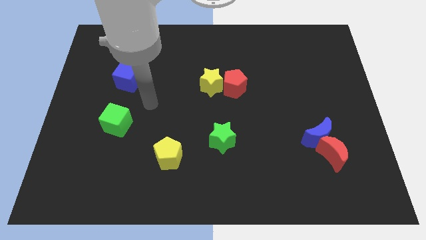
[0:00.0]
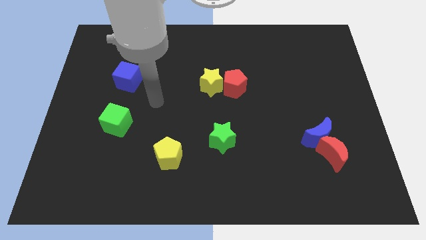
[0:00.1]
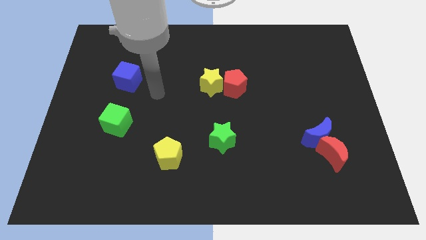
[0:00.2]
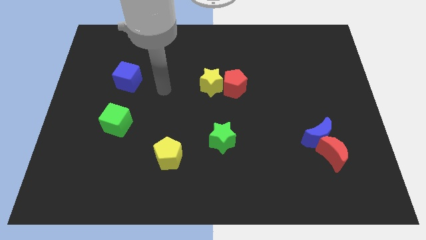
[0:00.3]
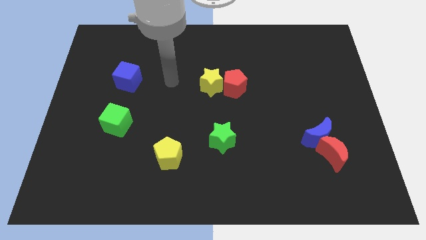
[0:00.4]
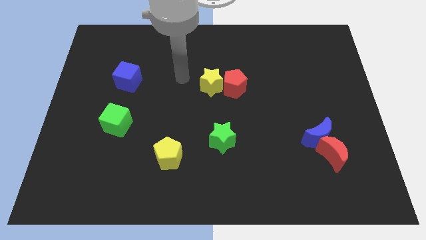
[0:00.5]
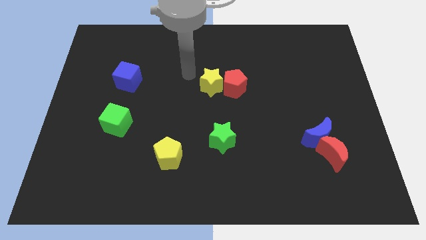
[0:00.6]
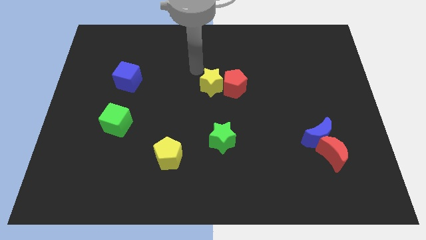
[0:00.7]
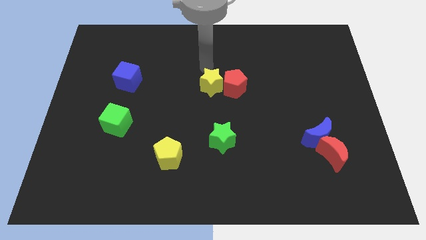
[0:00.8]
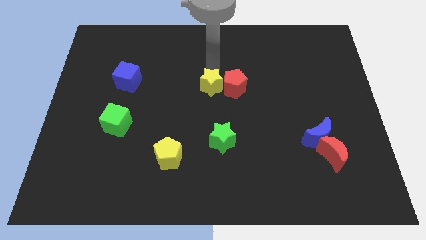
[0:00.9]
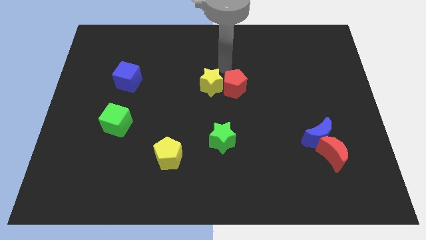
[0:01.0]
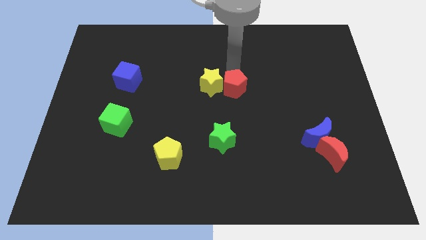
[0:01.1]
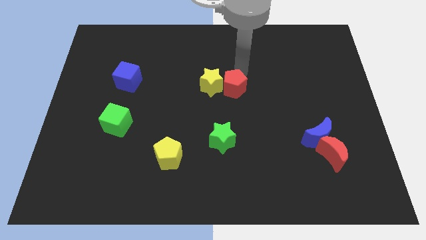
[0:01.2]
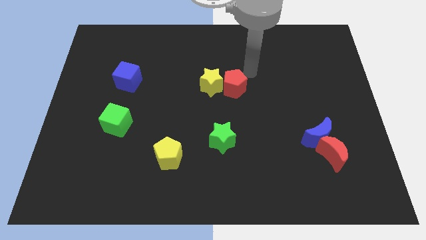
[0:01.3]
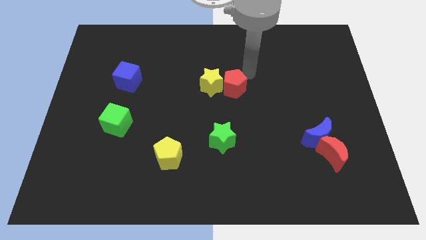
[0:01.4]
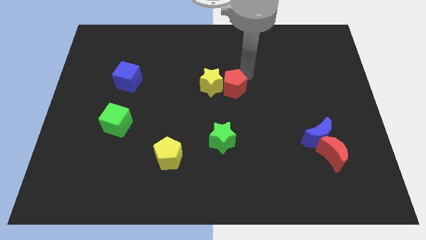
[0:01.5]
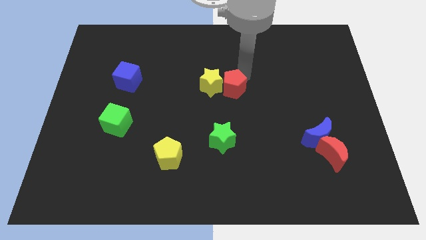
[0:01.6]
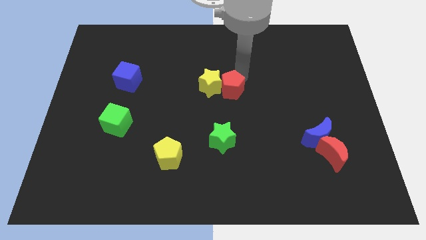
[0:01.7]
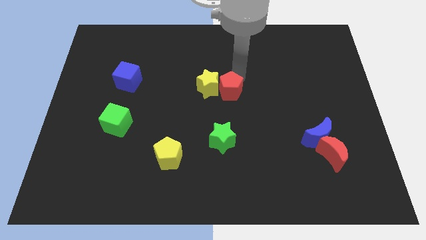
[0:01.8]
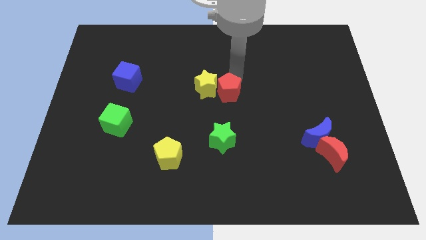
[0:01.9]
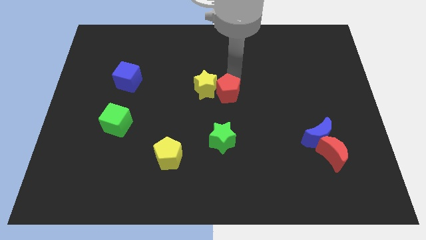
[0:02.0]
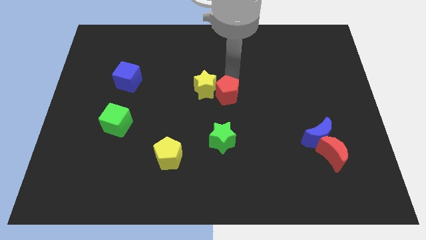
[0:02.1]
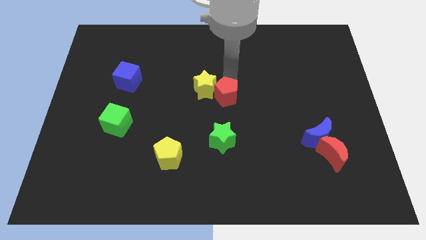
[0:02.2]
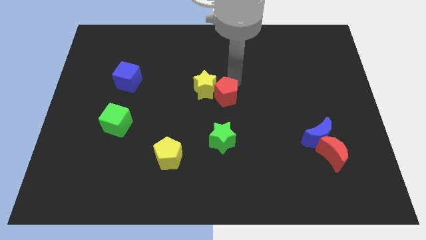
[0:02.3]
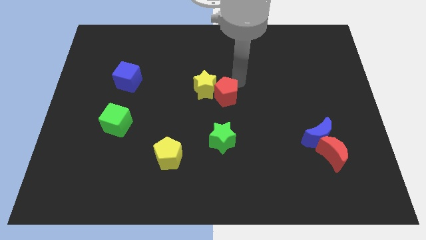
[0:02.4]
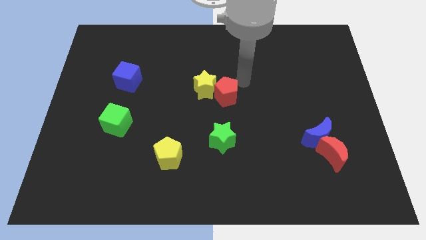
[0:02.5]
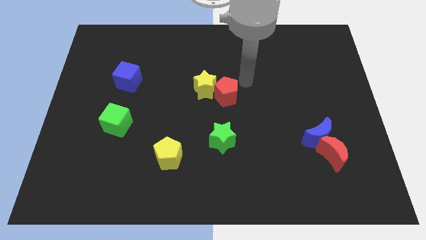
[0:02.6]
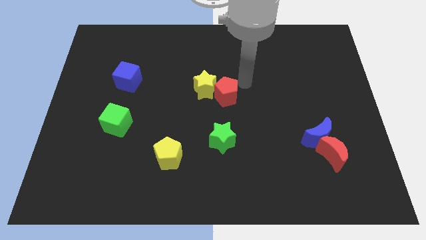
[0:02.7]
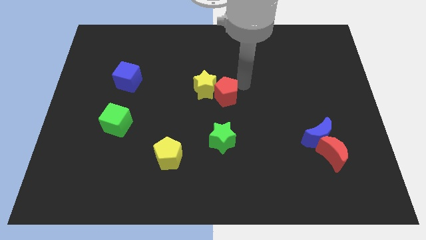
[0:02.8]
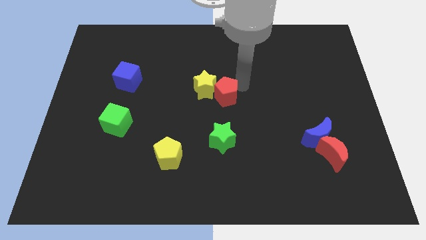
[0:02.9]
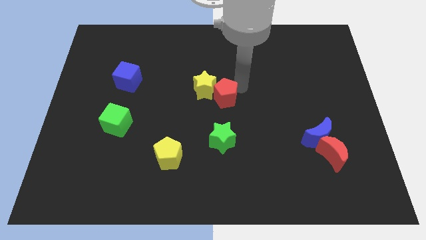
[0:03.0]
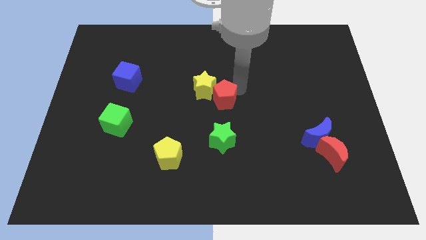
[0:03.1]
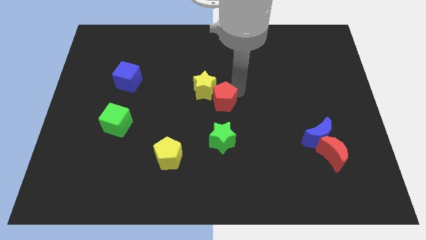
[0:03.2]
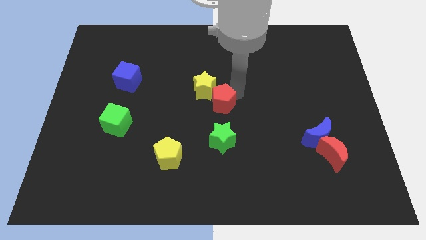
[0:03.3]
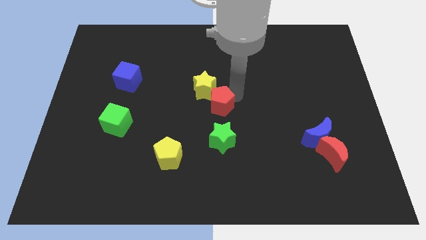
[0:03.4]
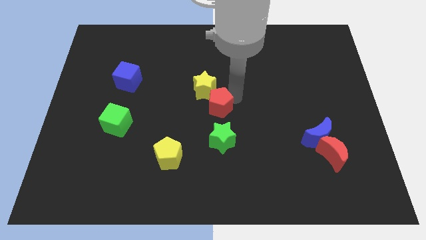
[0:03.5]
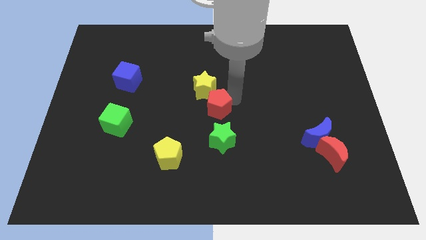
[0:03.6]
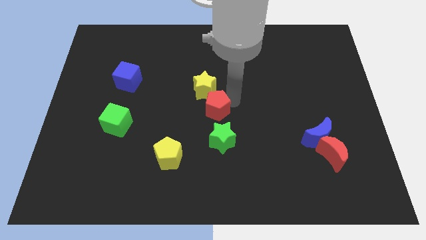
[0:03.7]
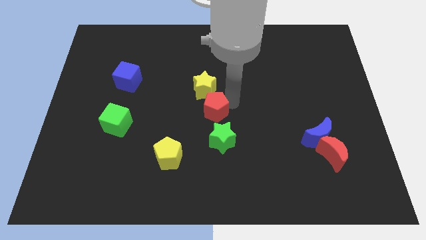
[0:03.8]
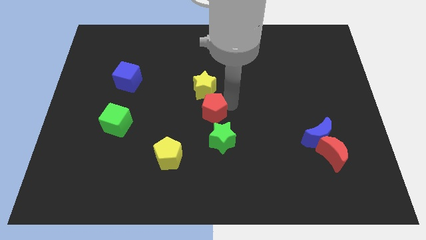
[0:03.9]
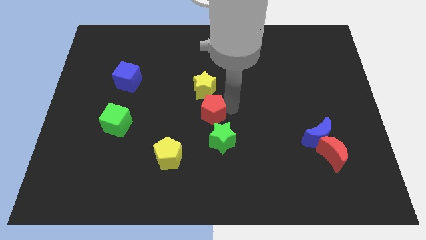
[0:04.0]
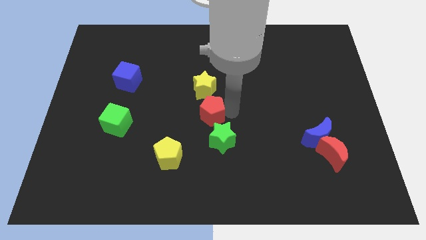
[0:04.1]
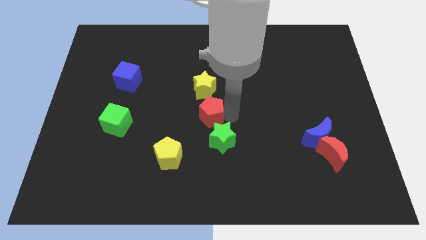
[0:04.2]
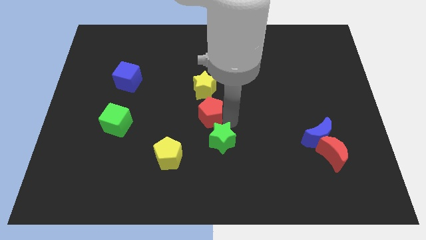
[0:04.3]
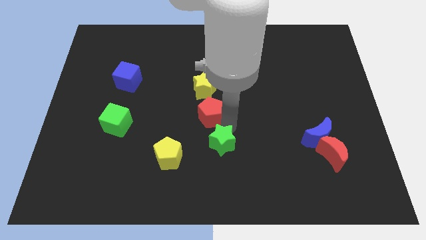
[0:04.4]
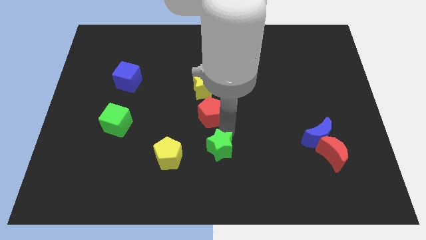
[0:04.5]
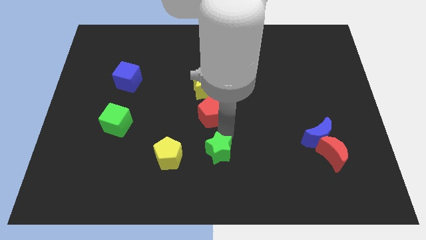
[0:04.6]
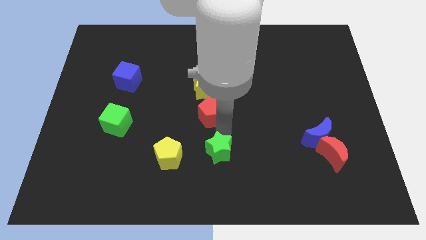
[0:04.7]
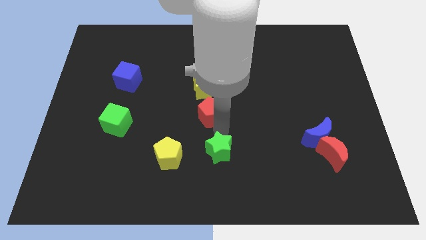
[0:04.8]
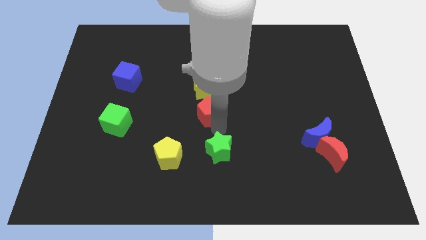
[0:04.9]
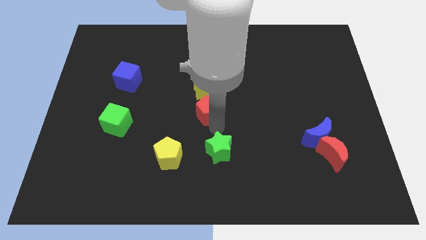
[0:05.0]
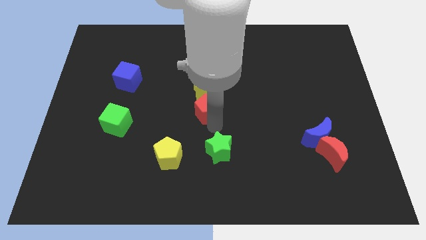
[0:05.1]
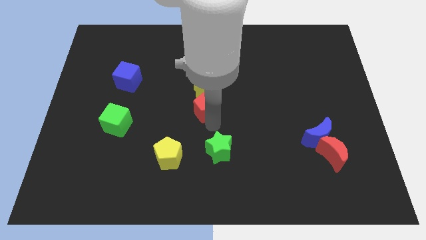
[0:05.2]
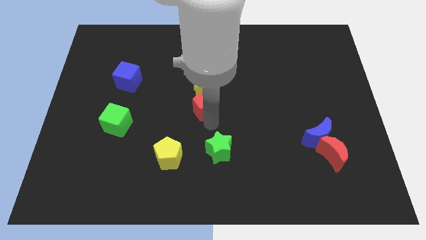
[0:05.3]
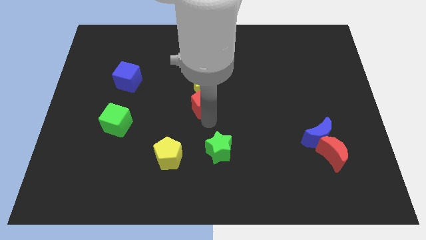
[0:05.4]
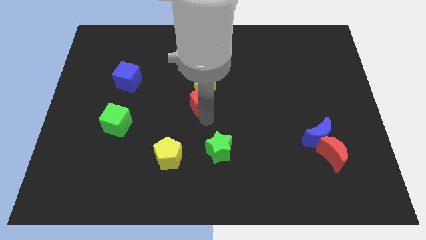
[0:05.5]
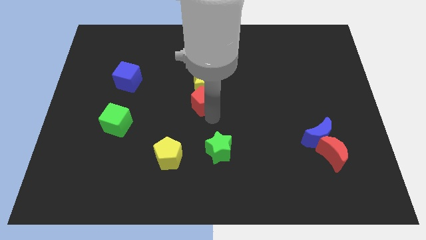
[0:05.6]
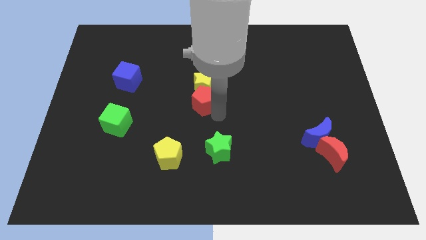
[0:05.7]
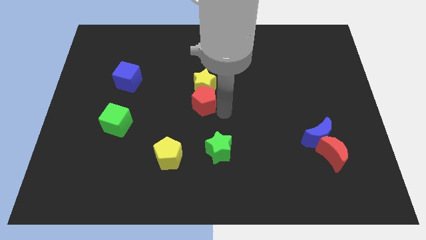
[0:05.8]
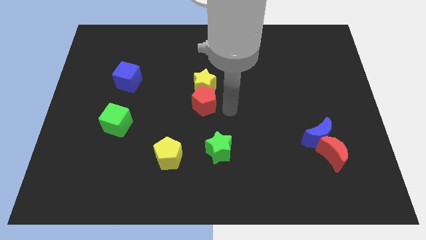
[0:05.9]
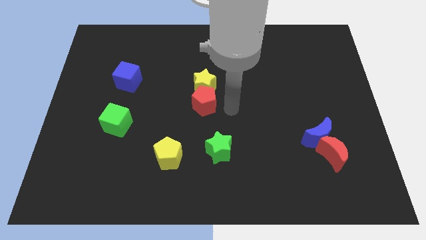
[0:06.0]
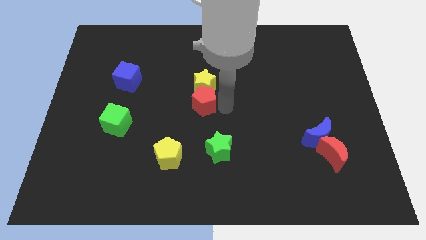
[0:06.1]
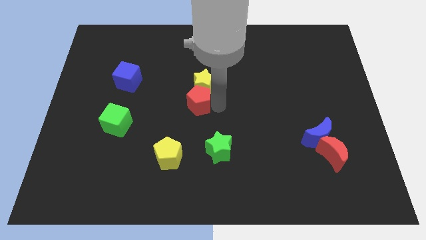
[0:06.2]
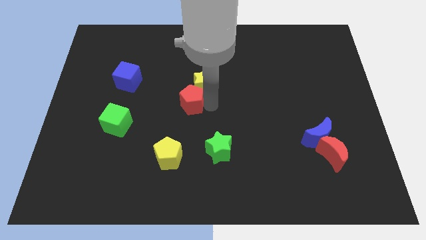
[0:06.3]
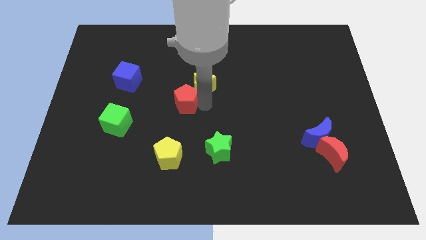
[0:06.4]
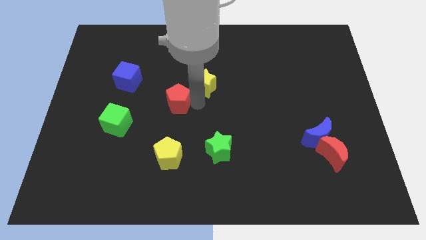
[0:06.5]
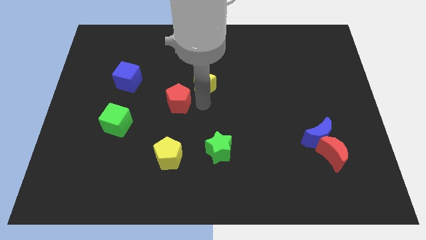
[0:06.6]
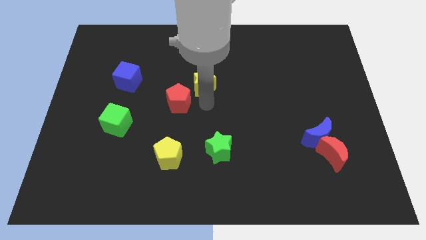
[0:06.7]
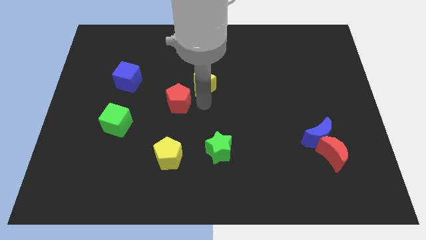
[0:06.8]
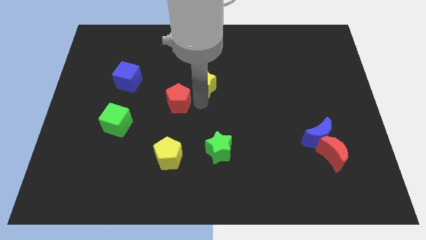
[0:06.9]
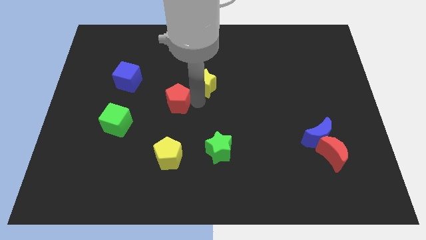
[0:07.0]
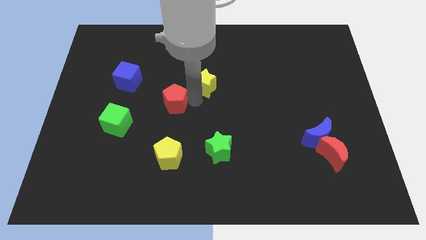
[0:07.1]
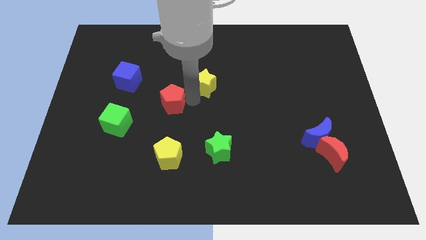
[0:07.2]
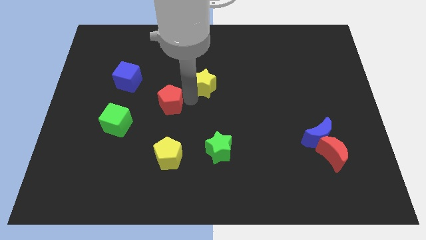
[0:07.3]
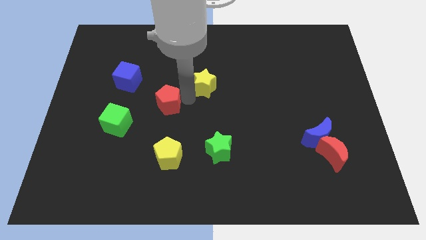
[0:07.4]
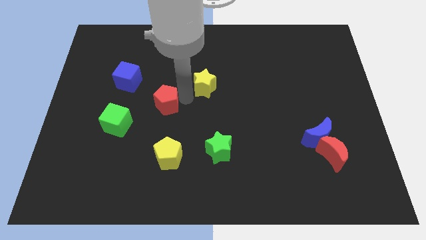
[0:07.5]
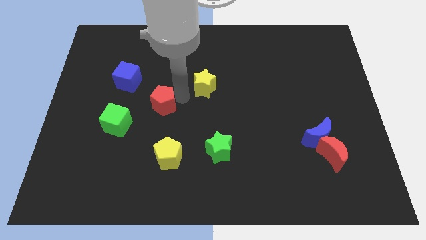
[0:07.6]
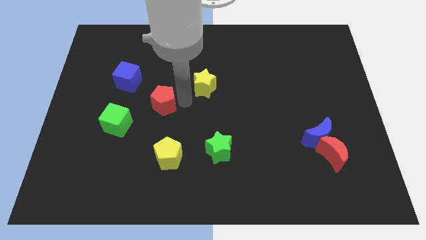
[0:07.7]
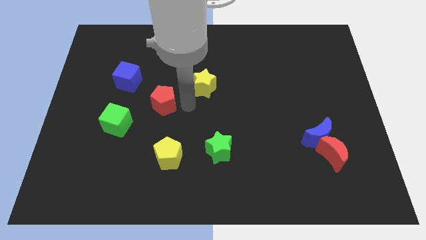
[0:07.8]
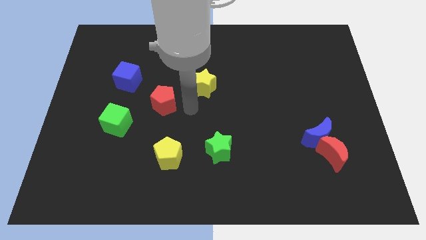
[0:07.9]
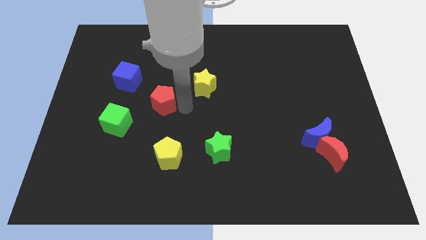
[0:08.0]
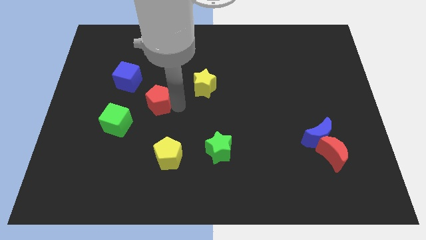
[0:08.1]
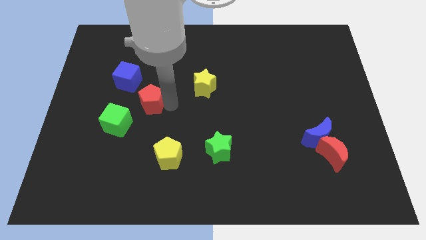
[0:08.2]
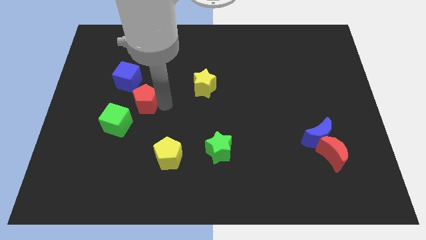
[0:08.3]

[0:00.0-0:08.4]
push the red pentagon to the left
